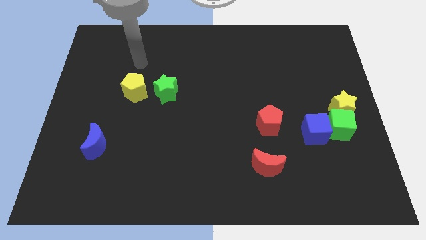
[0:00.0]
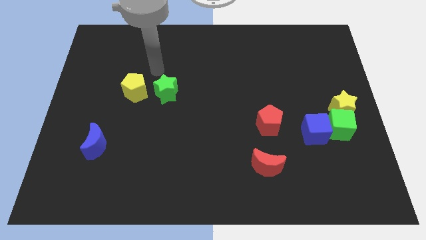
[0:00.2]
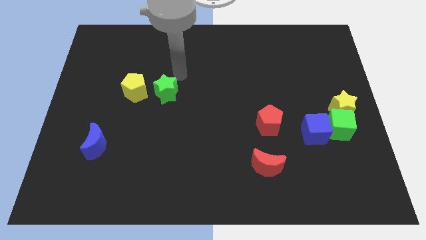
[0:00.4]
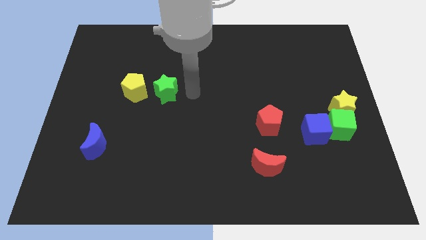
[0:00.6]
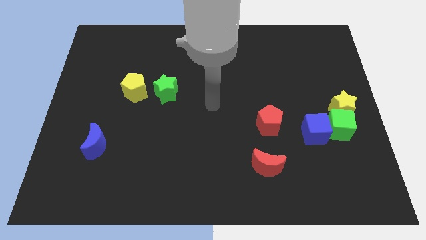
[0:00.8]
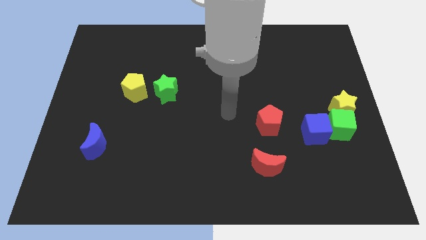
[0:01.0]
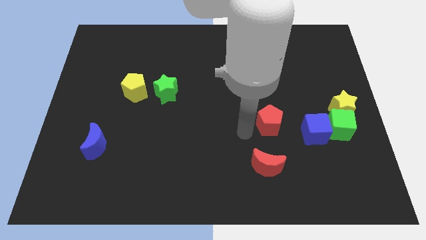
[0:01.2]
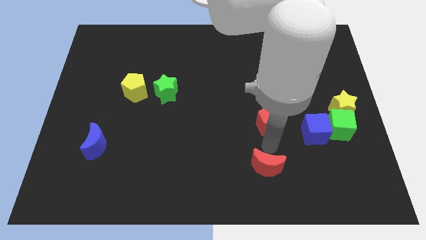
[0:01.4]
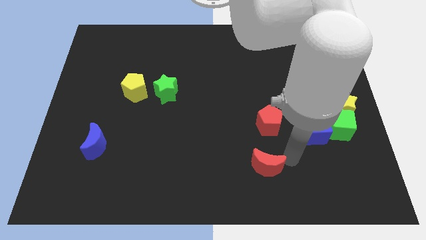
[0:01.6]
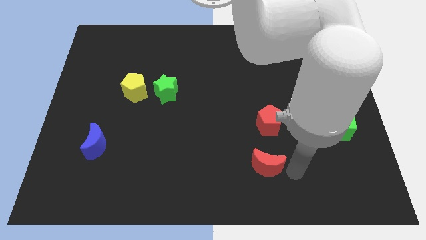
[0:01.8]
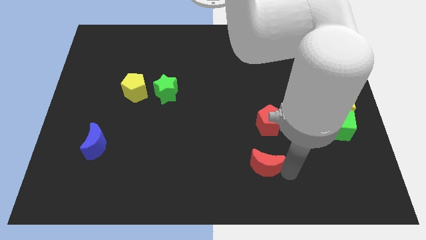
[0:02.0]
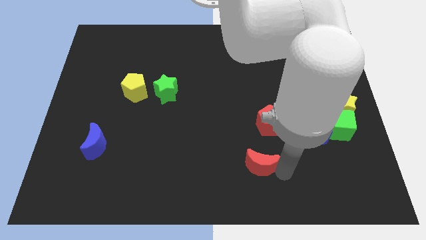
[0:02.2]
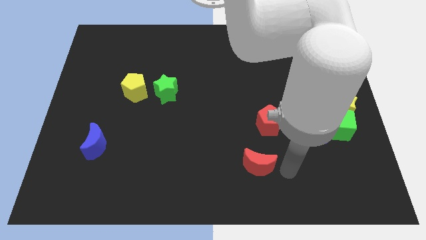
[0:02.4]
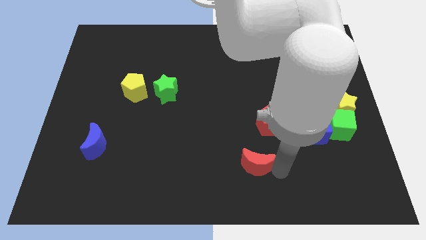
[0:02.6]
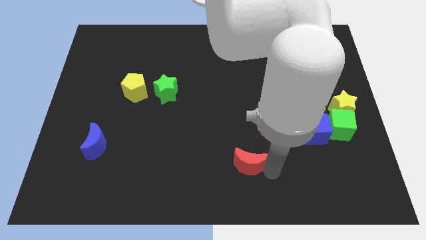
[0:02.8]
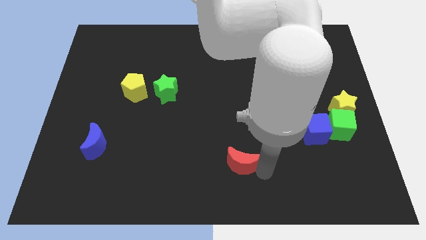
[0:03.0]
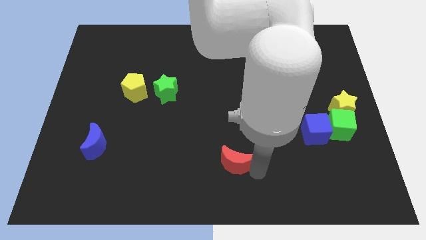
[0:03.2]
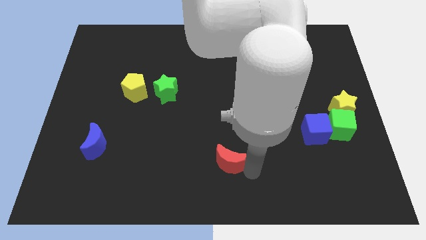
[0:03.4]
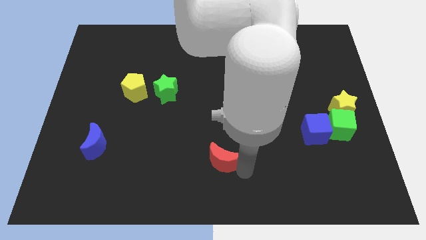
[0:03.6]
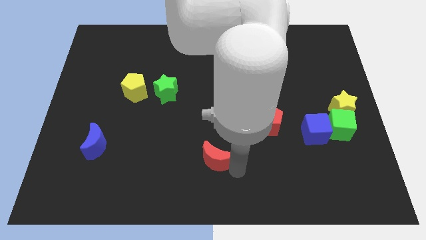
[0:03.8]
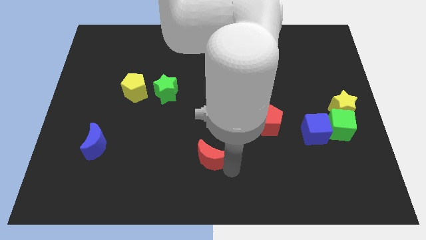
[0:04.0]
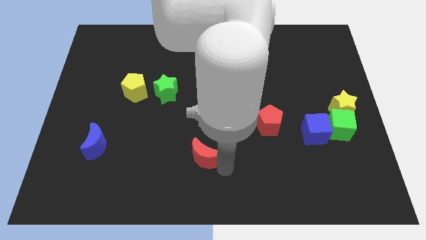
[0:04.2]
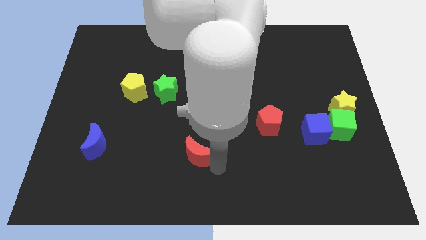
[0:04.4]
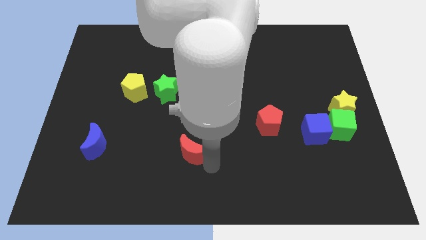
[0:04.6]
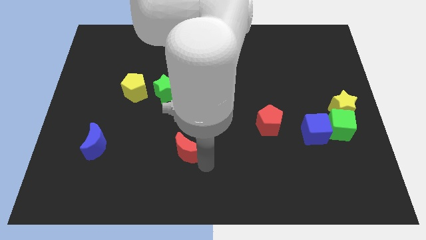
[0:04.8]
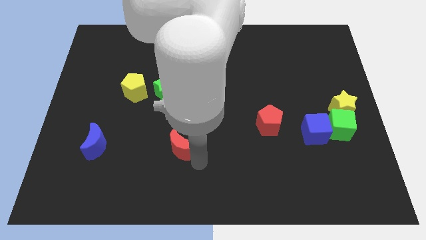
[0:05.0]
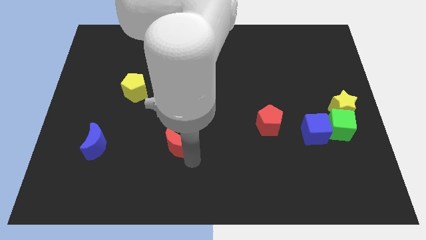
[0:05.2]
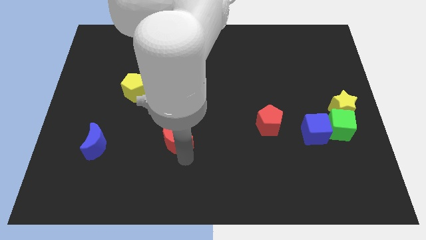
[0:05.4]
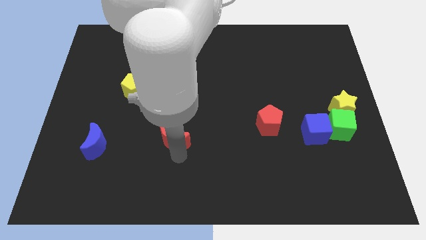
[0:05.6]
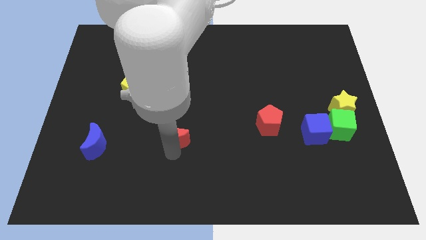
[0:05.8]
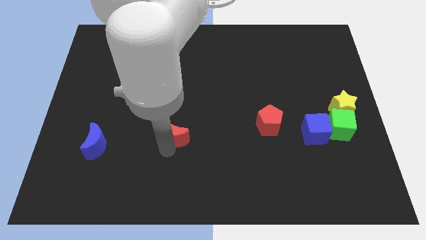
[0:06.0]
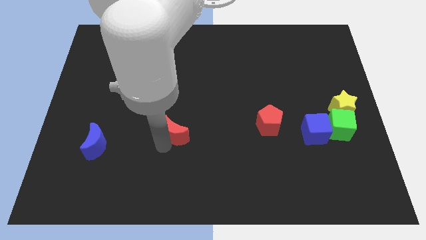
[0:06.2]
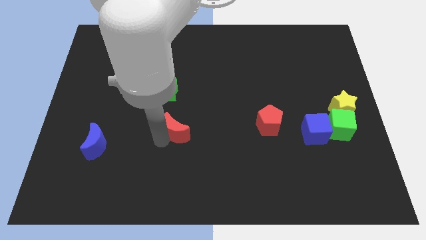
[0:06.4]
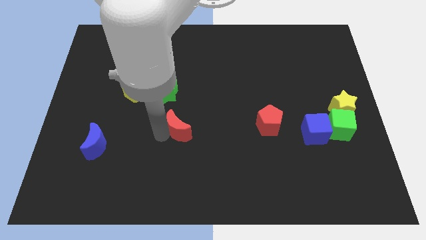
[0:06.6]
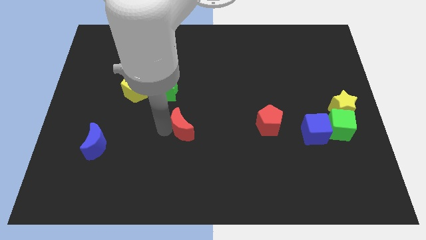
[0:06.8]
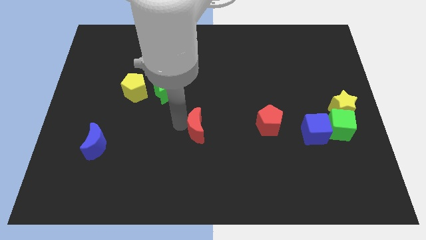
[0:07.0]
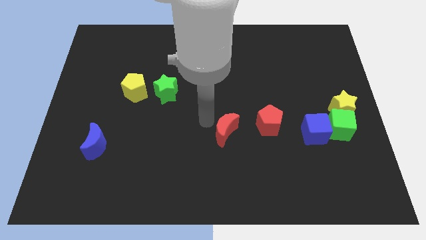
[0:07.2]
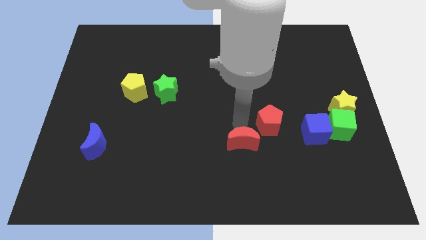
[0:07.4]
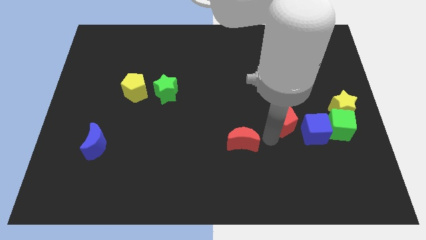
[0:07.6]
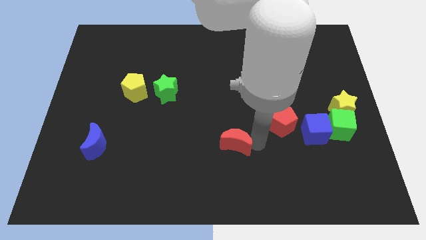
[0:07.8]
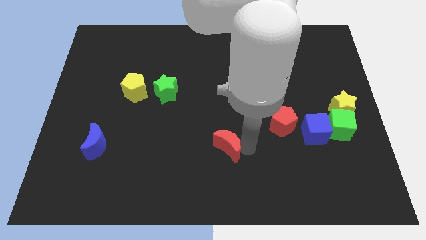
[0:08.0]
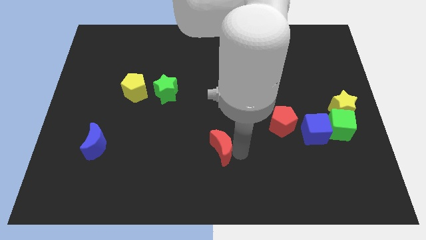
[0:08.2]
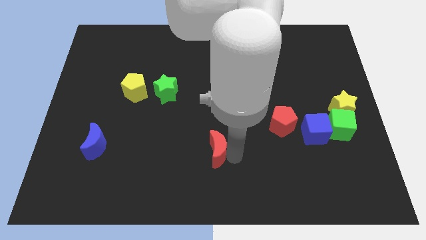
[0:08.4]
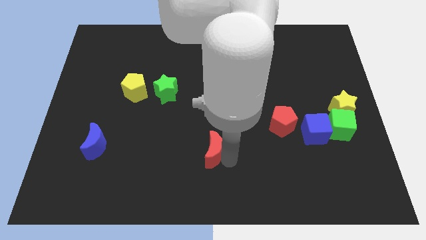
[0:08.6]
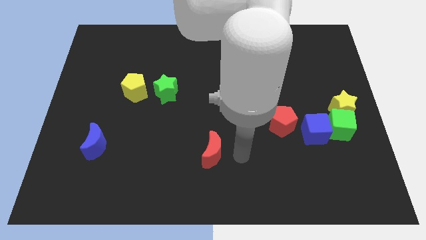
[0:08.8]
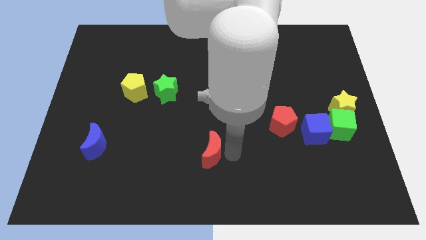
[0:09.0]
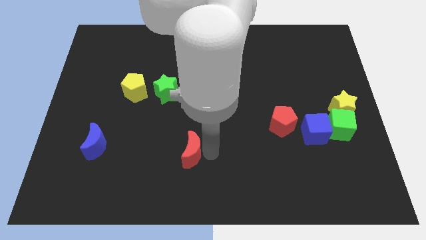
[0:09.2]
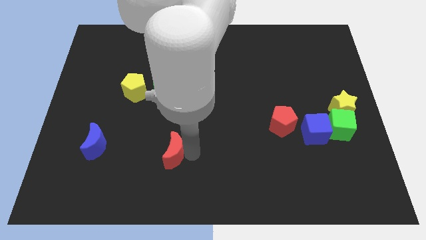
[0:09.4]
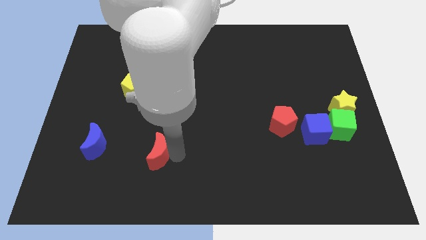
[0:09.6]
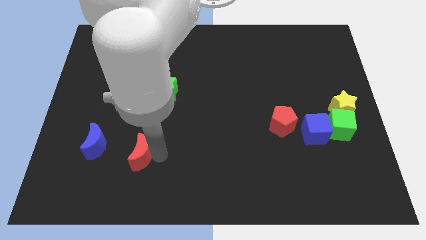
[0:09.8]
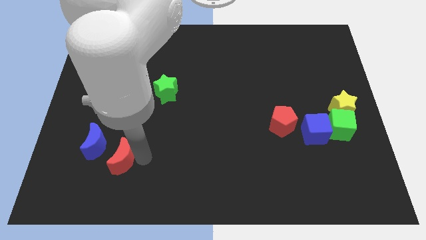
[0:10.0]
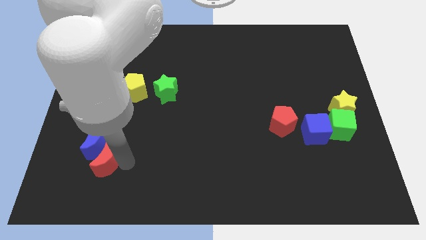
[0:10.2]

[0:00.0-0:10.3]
slide the red moon towards the blue moon

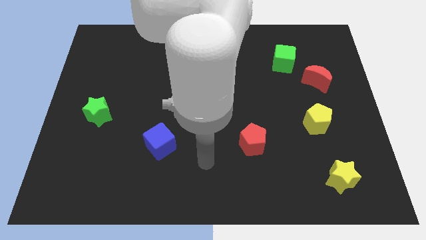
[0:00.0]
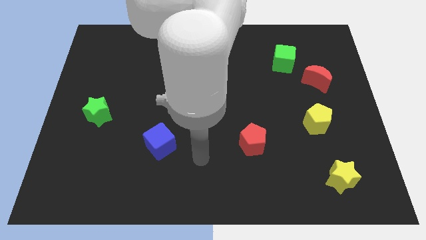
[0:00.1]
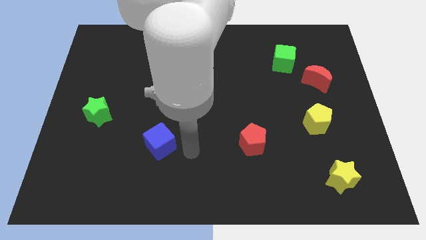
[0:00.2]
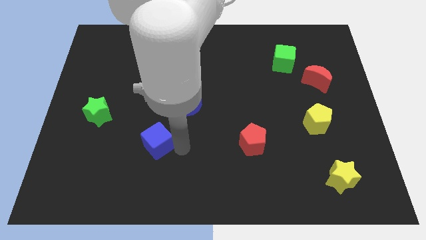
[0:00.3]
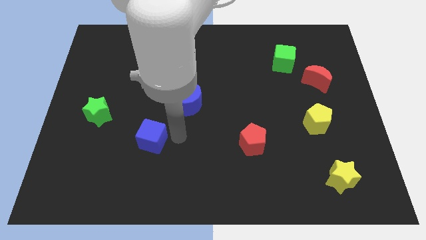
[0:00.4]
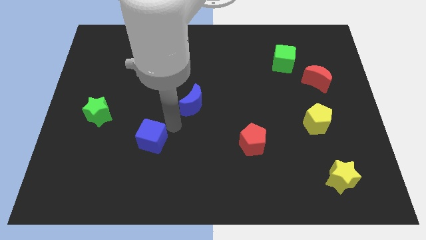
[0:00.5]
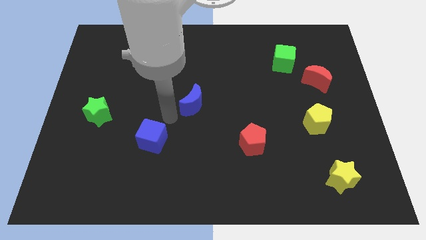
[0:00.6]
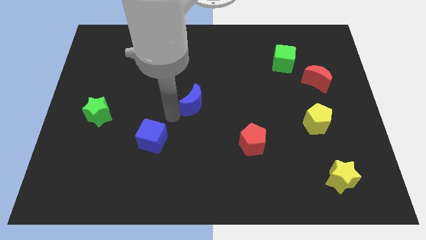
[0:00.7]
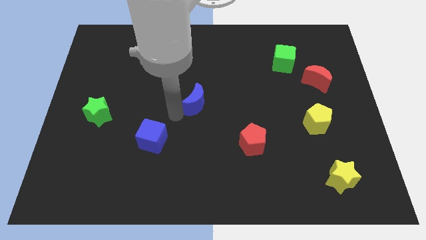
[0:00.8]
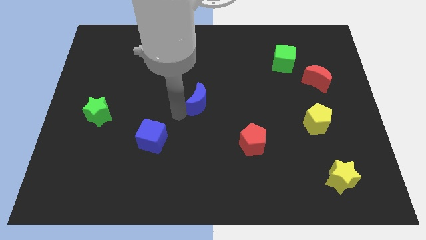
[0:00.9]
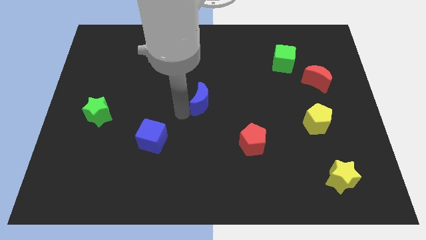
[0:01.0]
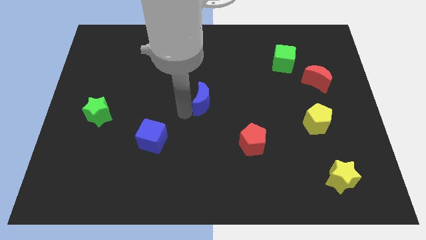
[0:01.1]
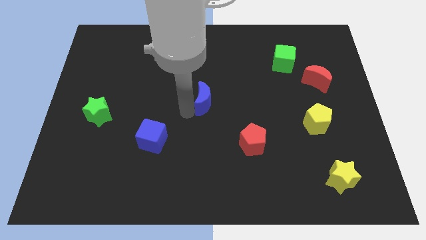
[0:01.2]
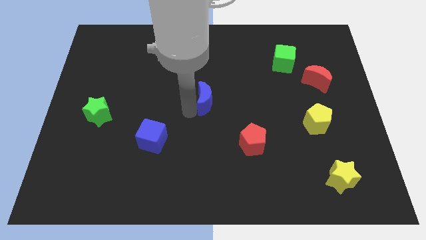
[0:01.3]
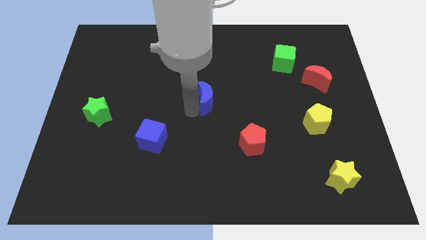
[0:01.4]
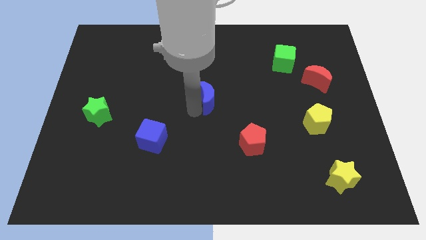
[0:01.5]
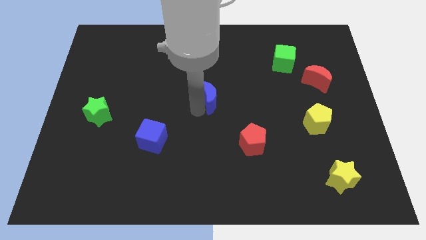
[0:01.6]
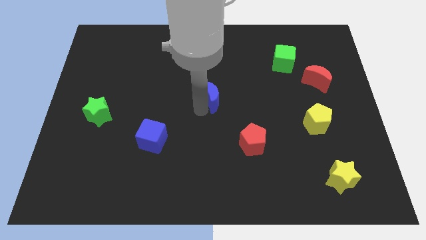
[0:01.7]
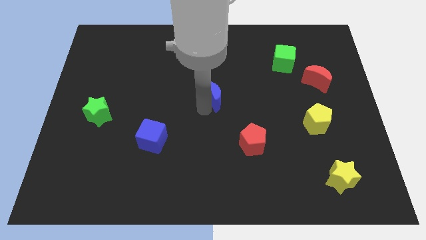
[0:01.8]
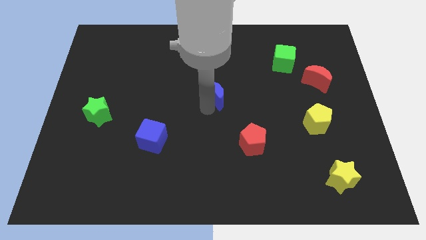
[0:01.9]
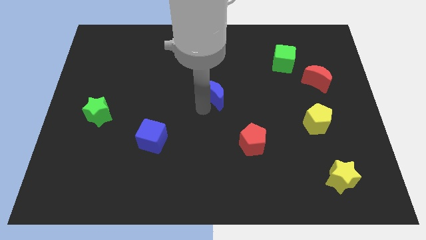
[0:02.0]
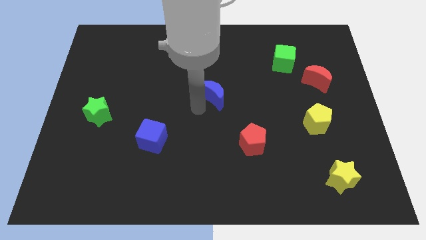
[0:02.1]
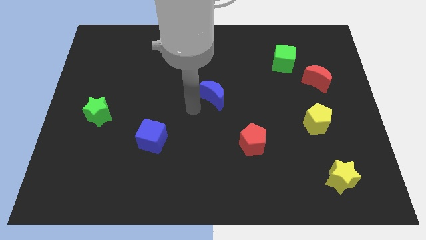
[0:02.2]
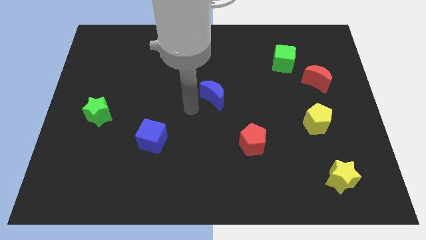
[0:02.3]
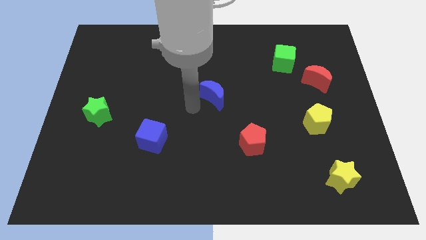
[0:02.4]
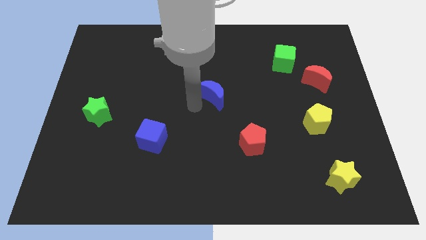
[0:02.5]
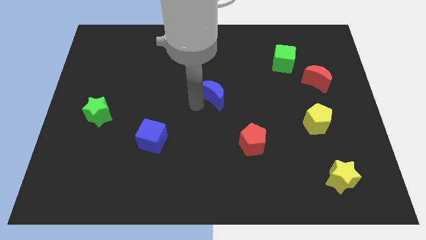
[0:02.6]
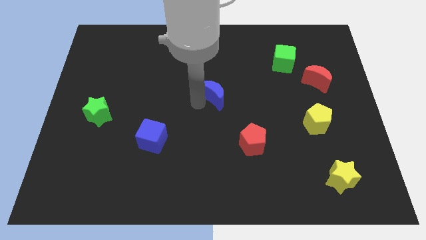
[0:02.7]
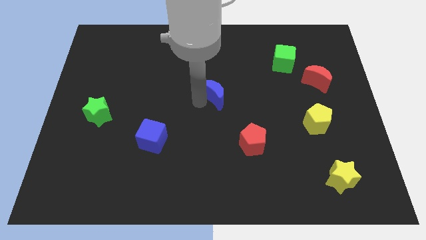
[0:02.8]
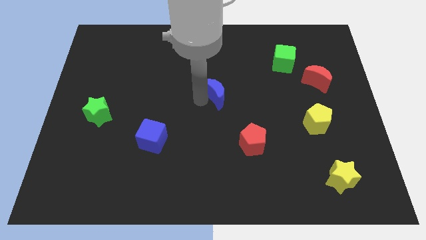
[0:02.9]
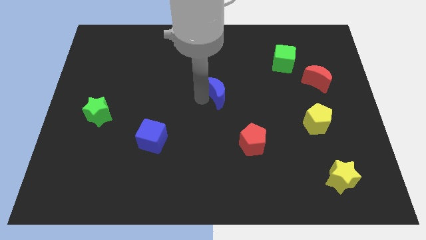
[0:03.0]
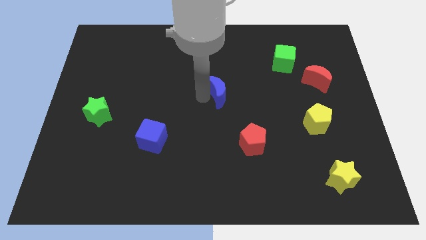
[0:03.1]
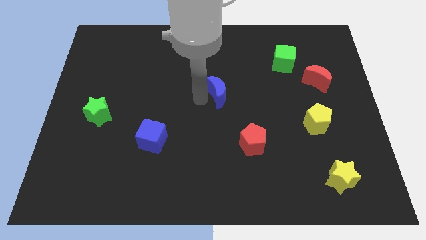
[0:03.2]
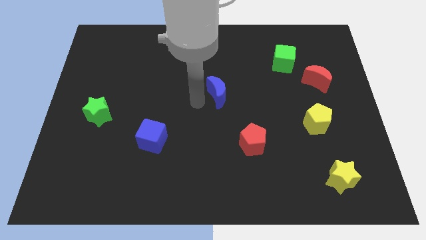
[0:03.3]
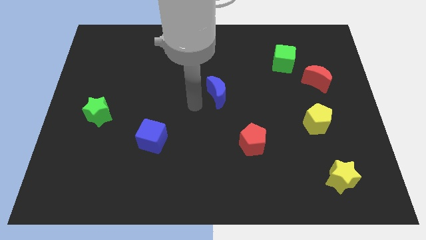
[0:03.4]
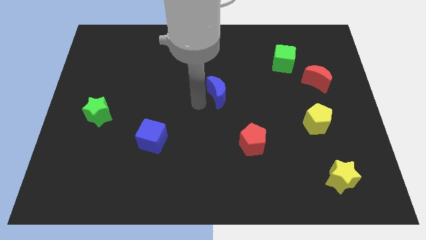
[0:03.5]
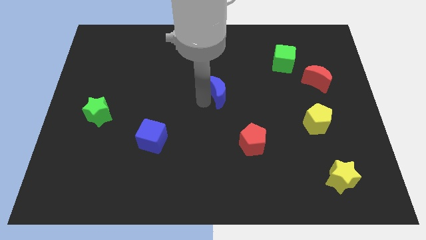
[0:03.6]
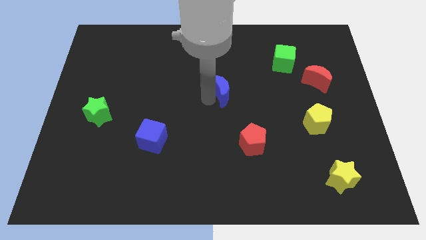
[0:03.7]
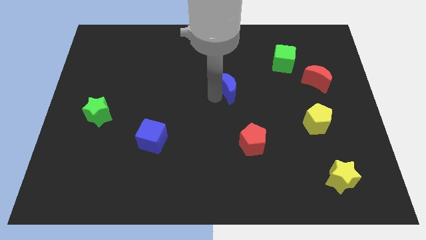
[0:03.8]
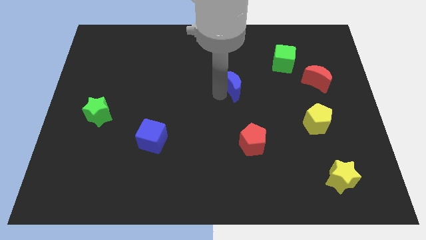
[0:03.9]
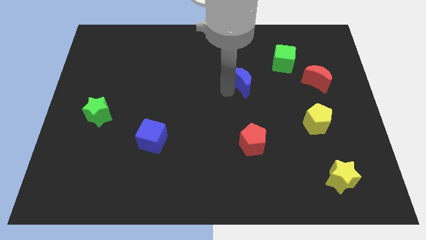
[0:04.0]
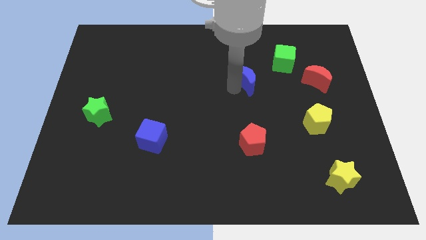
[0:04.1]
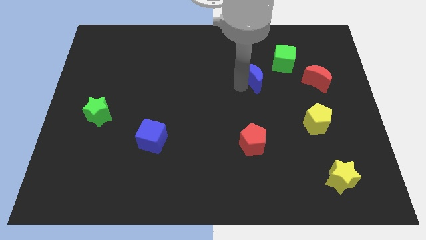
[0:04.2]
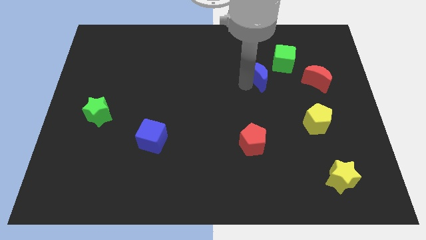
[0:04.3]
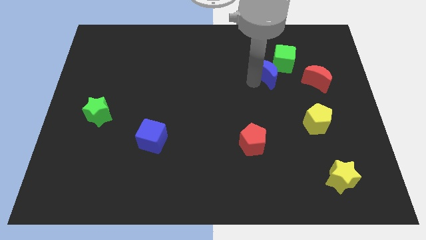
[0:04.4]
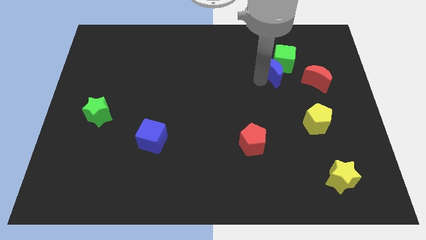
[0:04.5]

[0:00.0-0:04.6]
slide the blue moon to the green cube
